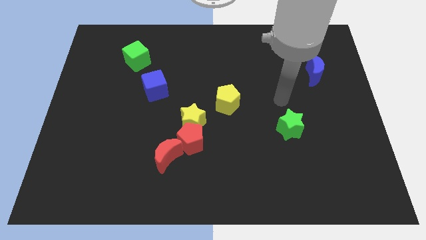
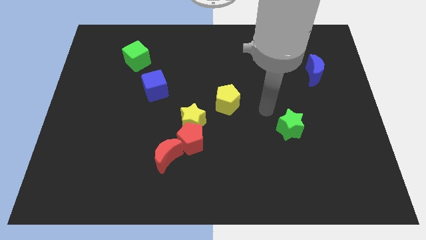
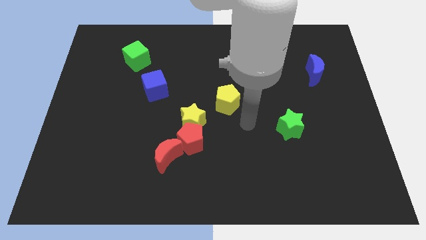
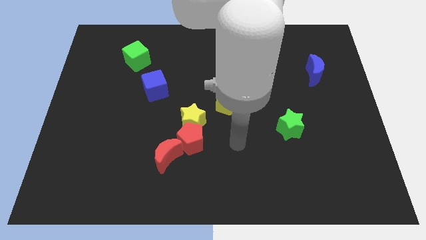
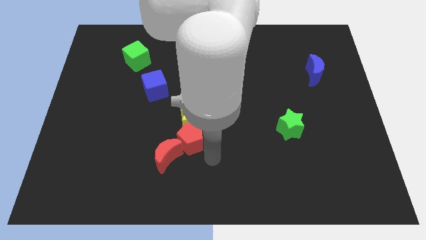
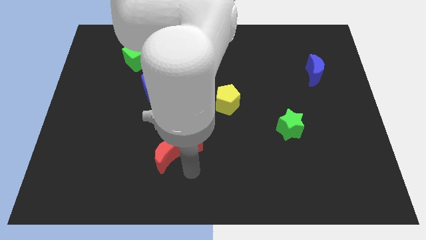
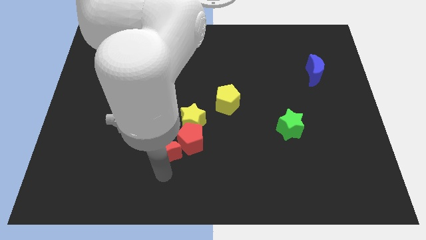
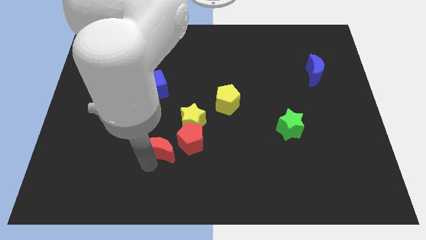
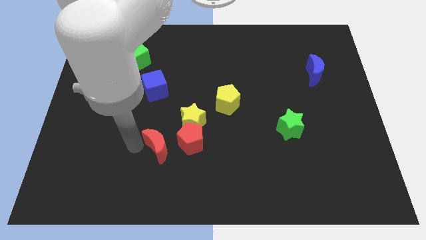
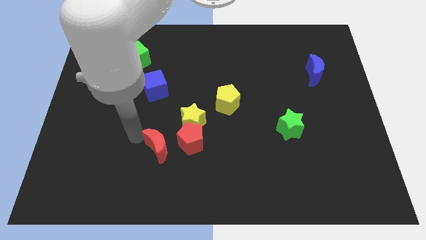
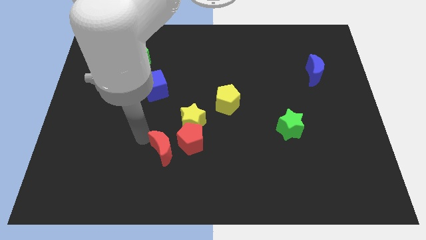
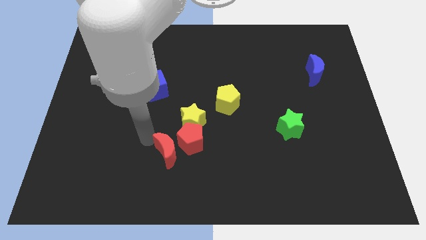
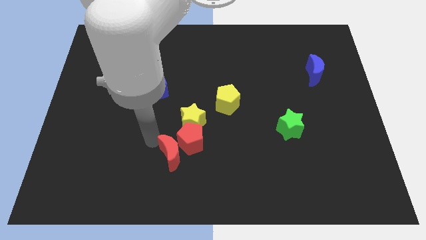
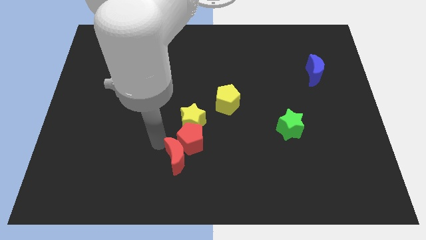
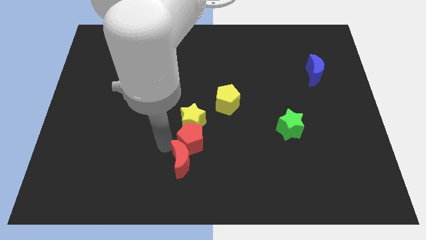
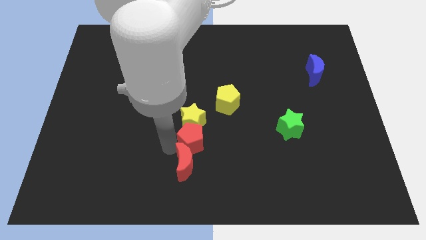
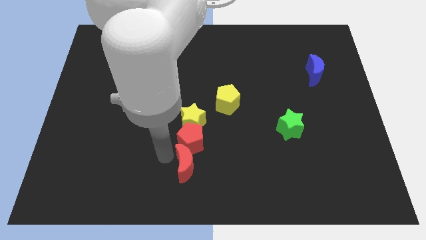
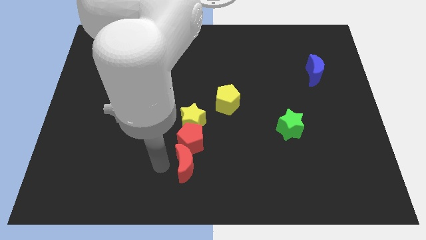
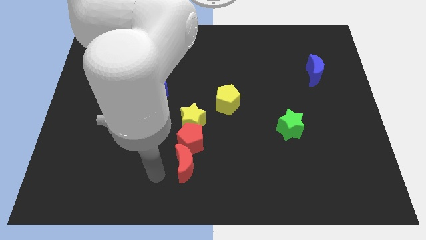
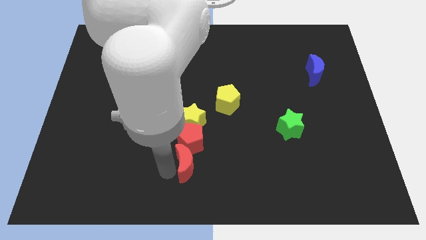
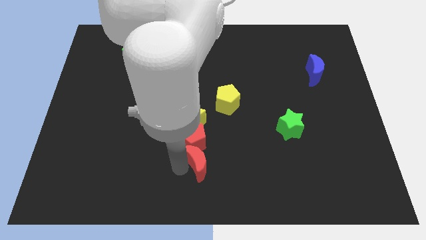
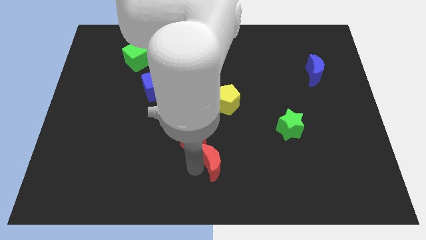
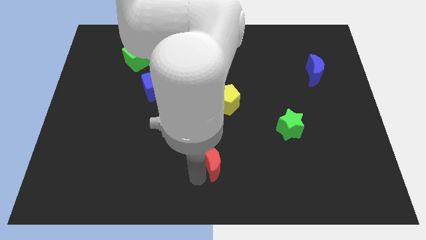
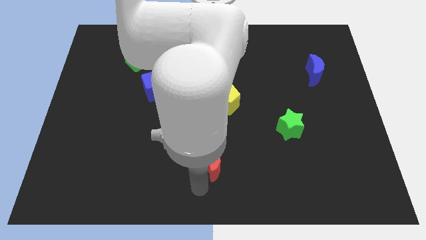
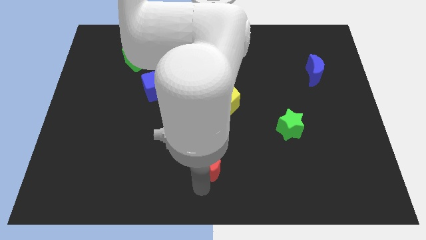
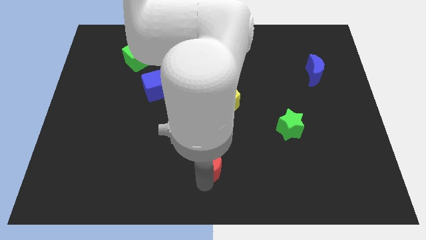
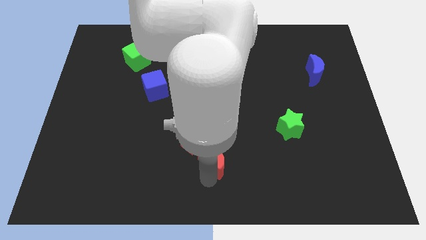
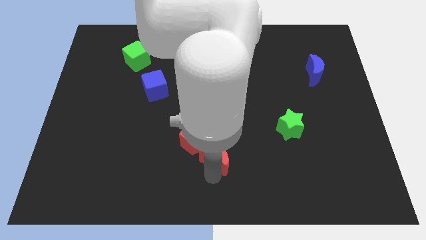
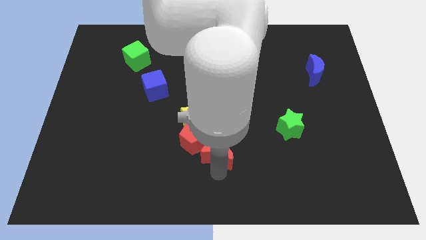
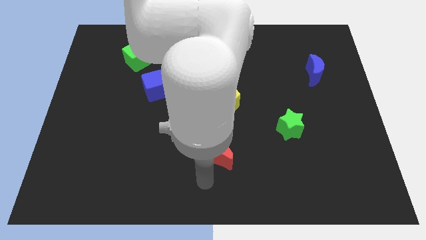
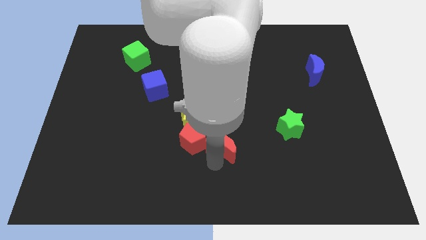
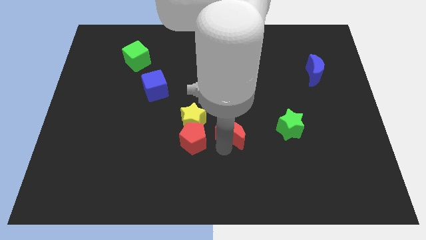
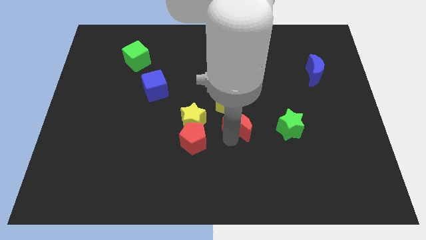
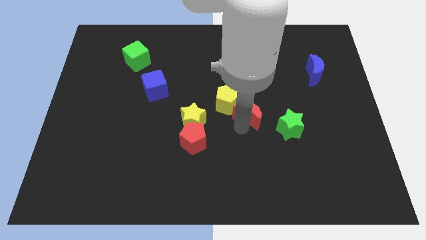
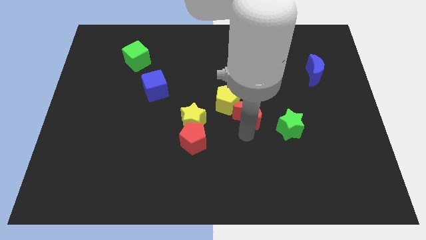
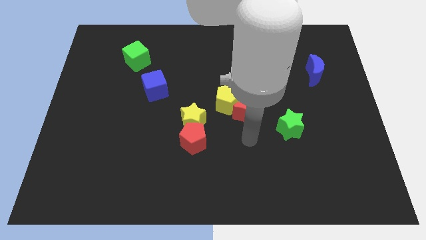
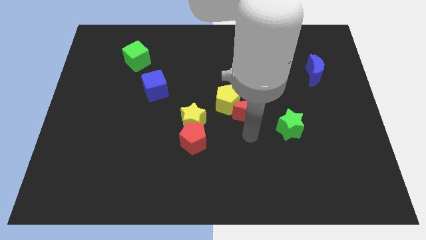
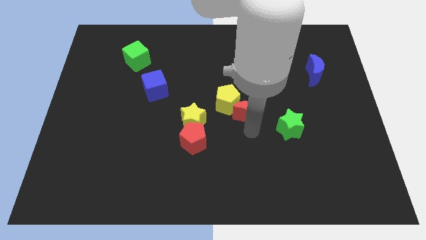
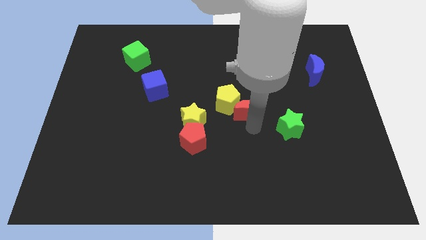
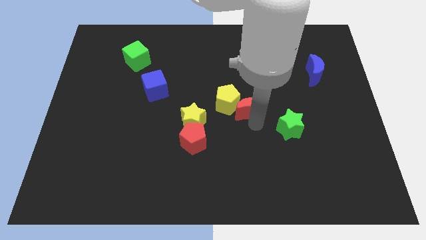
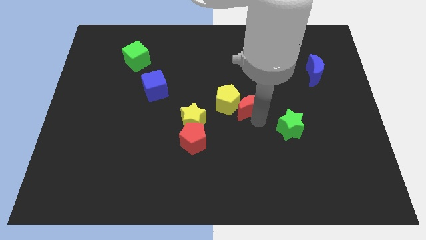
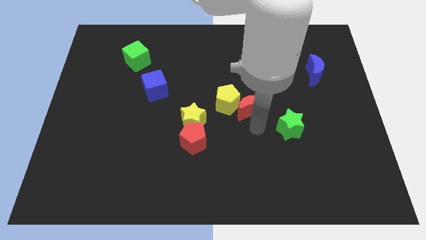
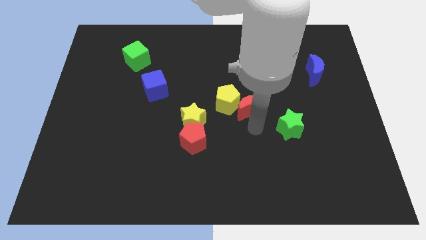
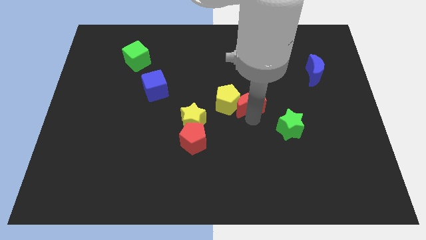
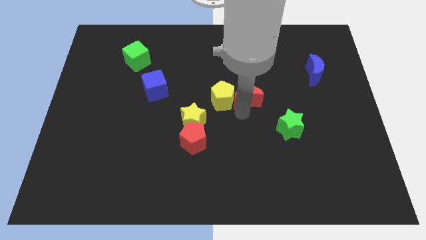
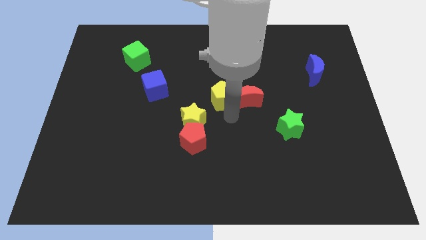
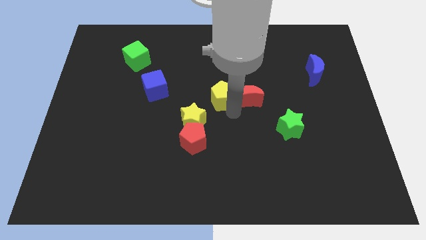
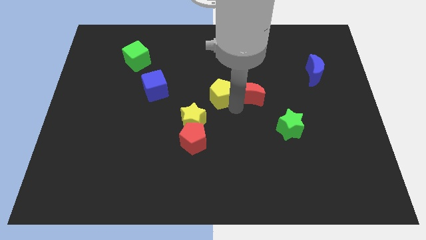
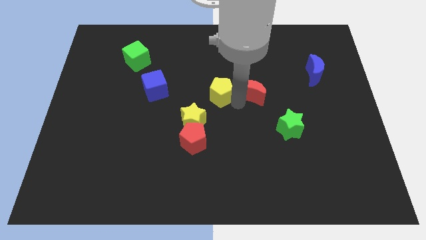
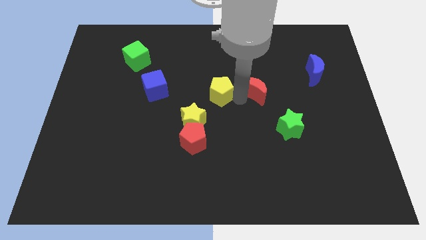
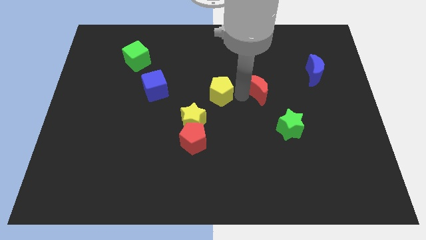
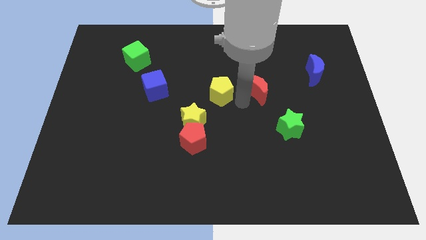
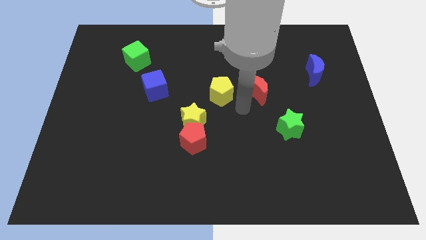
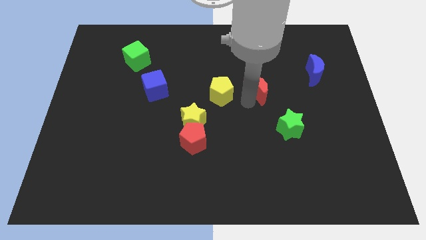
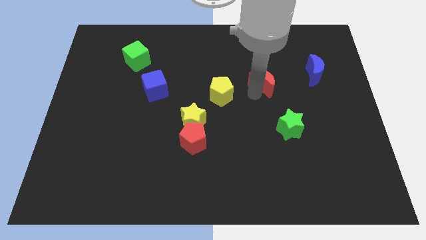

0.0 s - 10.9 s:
move the red moon to the left of the blue moon
